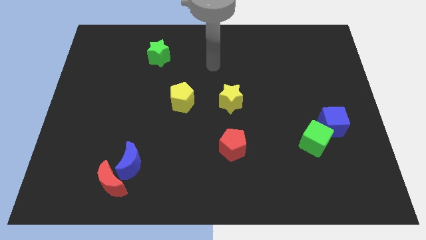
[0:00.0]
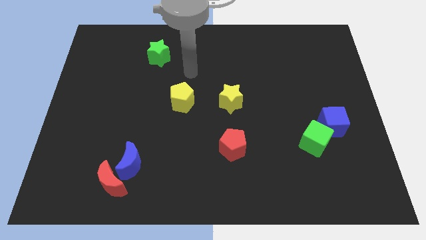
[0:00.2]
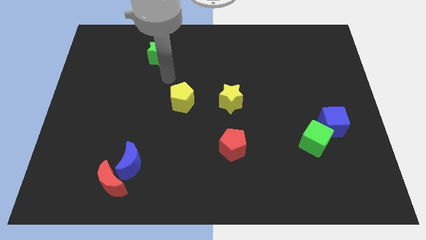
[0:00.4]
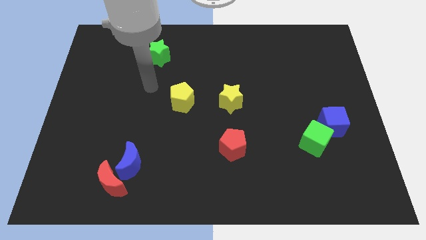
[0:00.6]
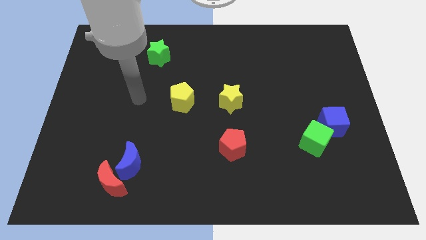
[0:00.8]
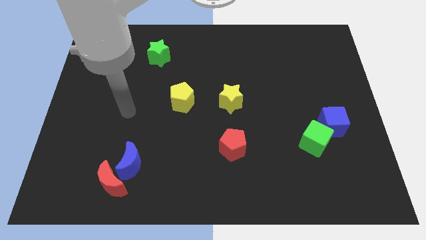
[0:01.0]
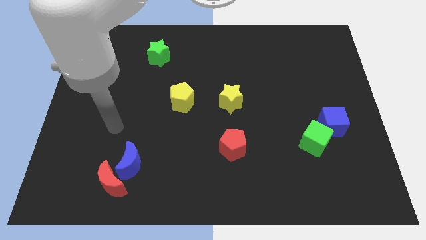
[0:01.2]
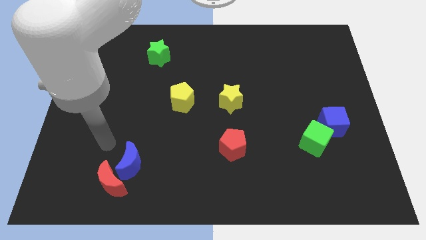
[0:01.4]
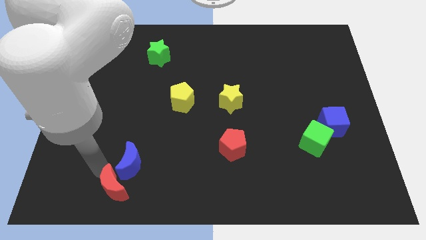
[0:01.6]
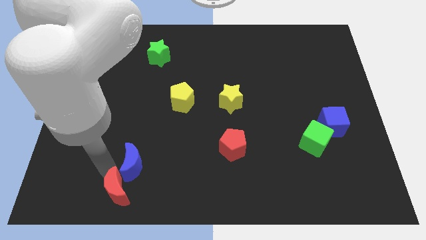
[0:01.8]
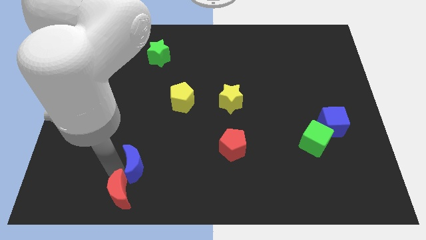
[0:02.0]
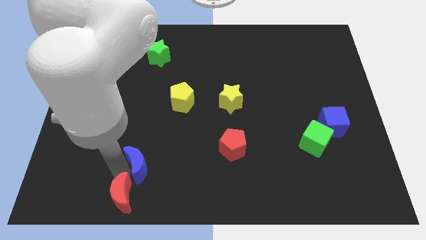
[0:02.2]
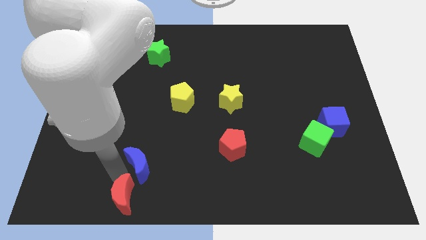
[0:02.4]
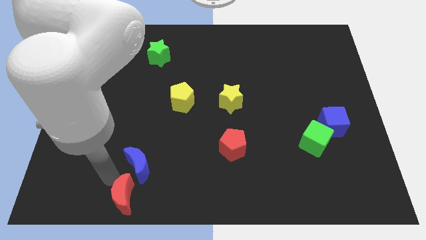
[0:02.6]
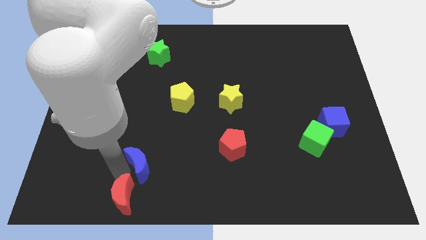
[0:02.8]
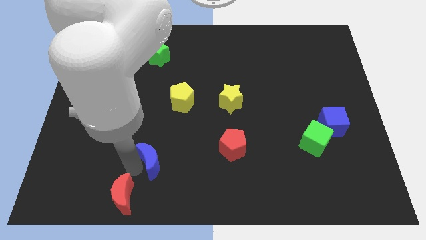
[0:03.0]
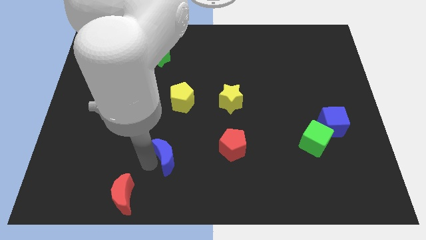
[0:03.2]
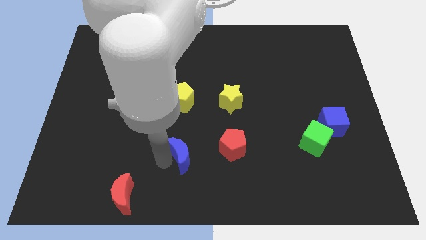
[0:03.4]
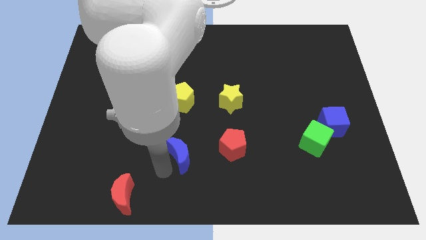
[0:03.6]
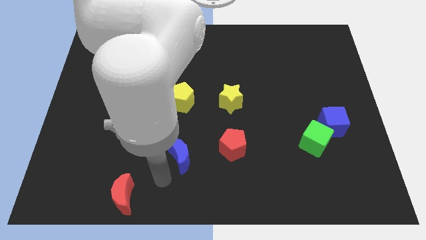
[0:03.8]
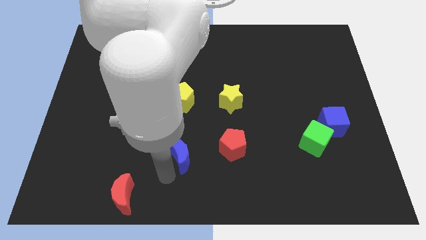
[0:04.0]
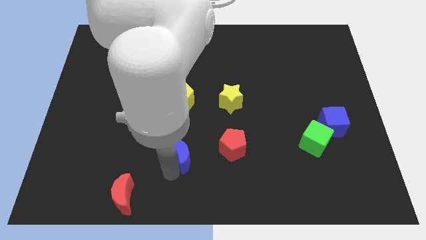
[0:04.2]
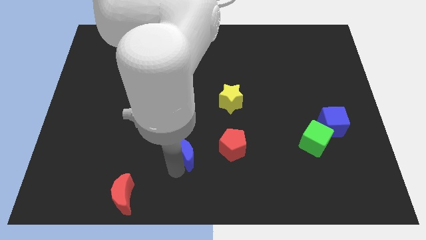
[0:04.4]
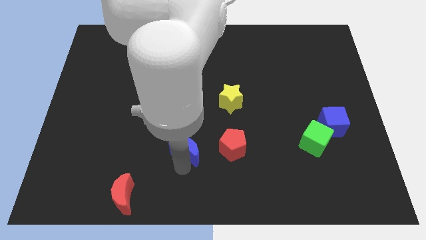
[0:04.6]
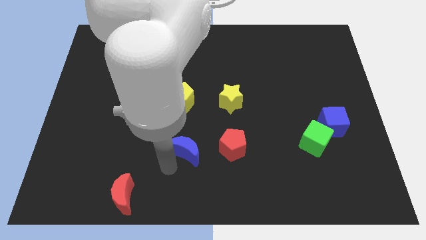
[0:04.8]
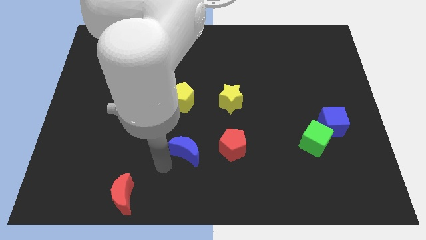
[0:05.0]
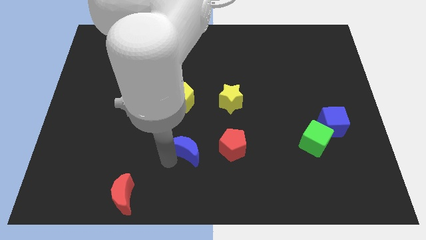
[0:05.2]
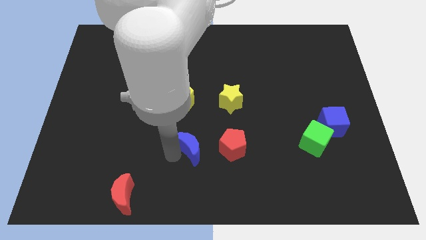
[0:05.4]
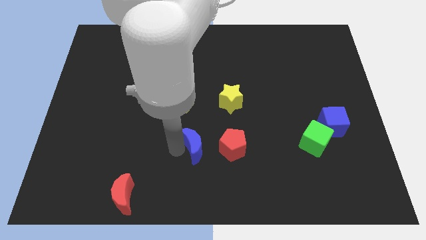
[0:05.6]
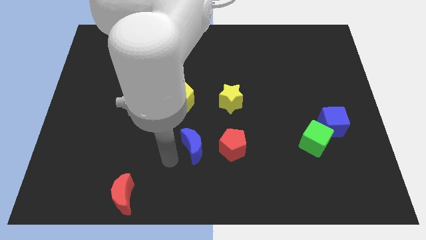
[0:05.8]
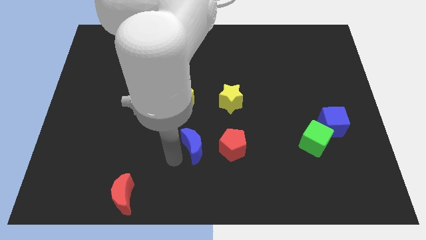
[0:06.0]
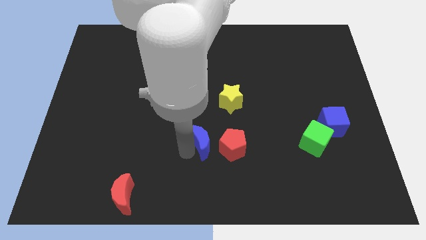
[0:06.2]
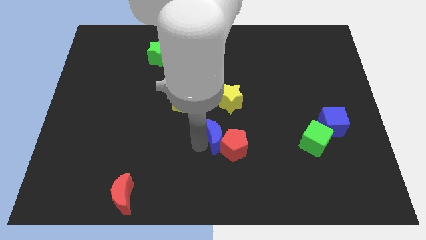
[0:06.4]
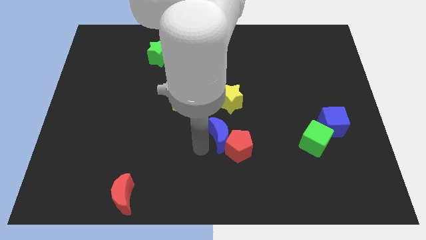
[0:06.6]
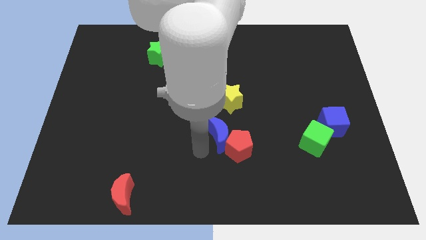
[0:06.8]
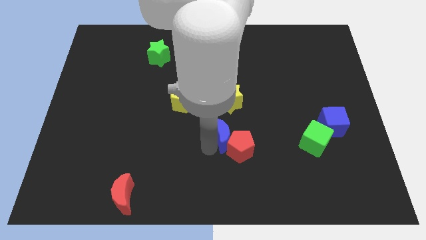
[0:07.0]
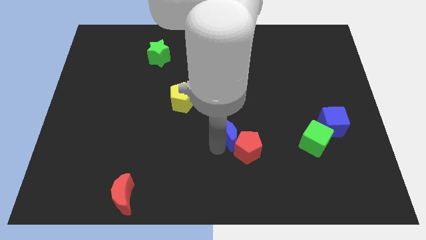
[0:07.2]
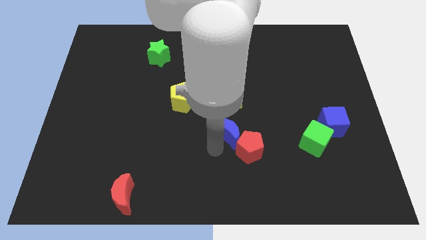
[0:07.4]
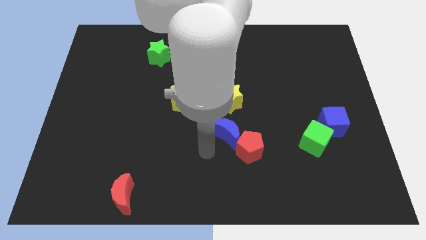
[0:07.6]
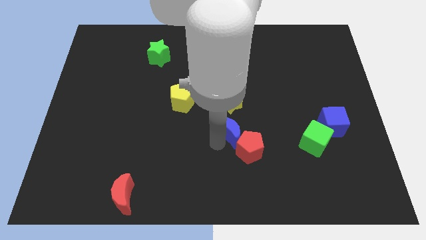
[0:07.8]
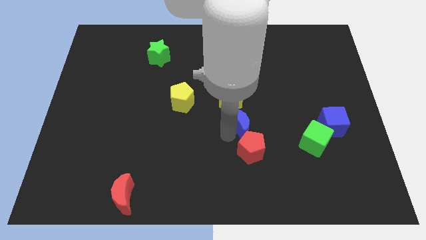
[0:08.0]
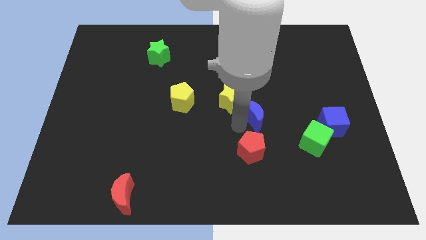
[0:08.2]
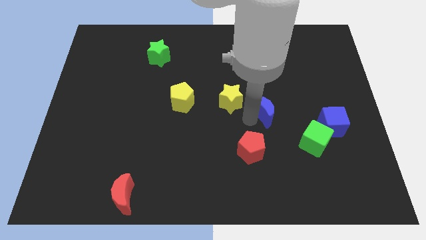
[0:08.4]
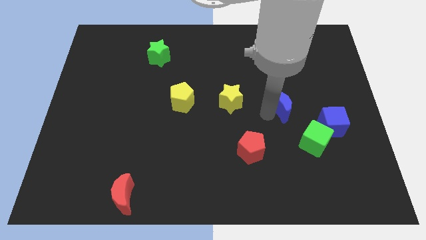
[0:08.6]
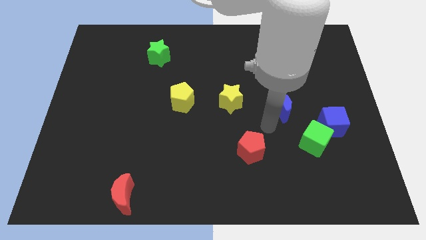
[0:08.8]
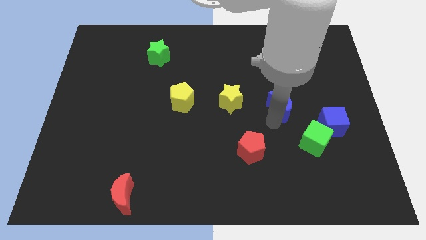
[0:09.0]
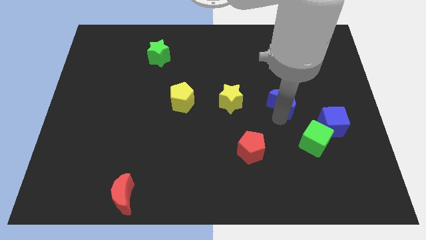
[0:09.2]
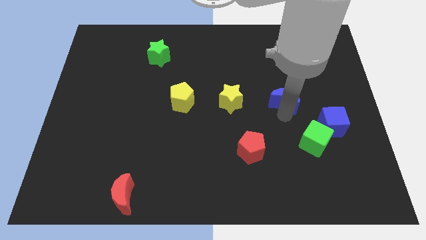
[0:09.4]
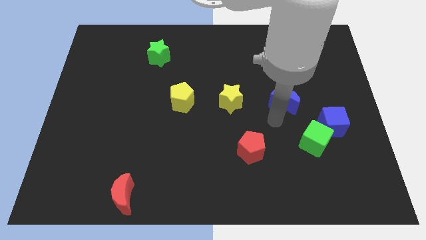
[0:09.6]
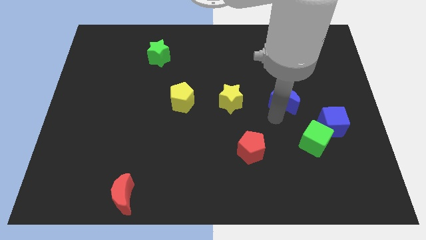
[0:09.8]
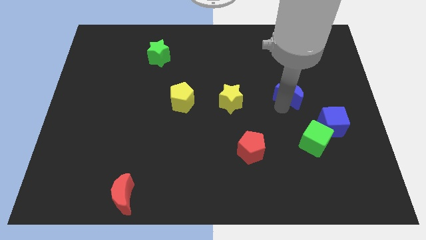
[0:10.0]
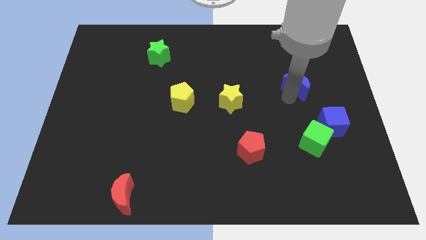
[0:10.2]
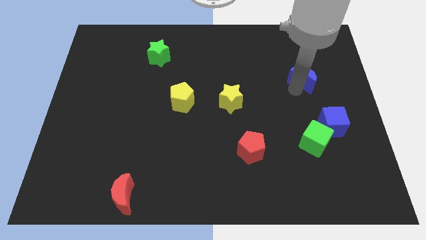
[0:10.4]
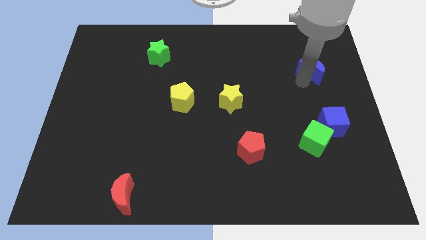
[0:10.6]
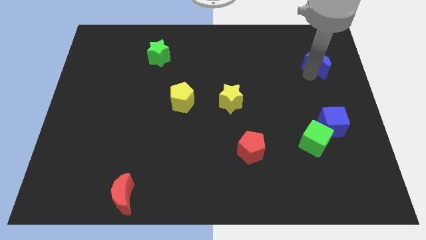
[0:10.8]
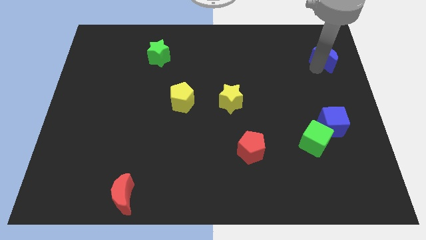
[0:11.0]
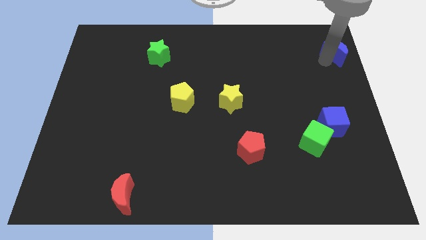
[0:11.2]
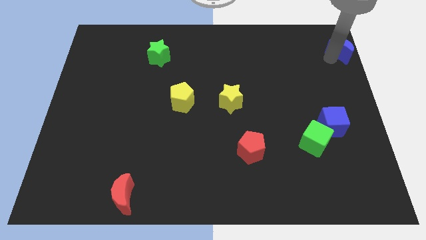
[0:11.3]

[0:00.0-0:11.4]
move the blue moon to the top right corner

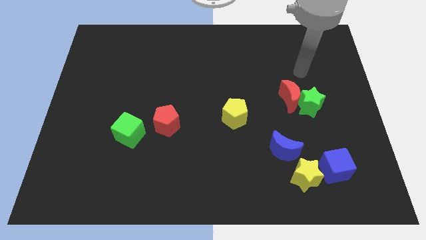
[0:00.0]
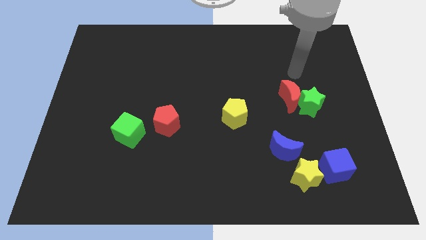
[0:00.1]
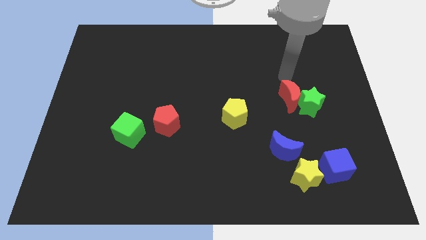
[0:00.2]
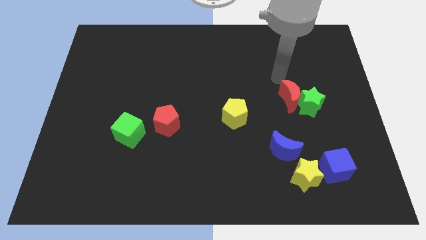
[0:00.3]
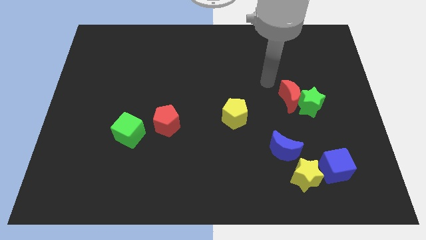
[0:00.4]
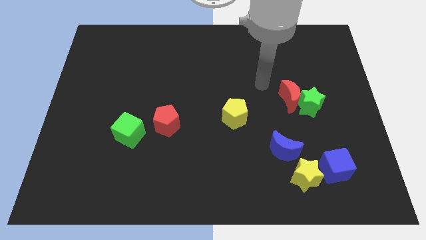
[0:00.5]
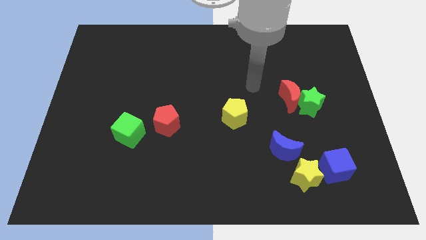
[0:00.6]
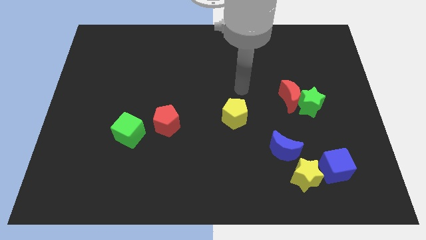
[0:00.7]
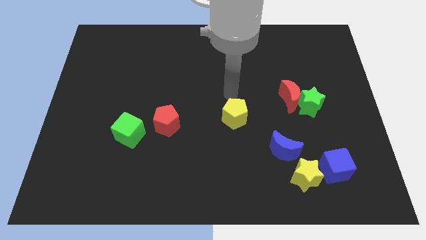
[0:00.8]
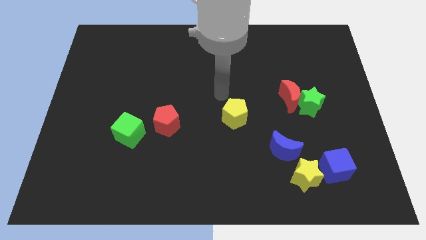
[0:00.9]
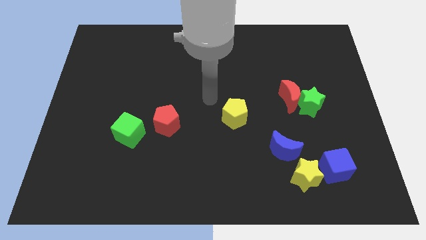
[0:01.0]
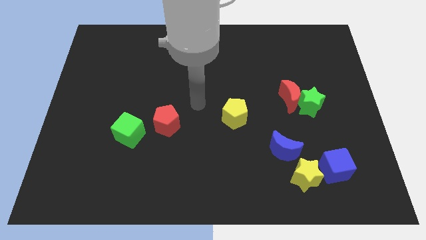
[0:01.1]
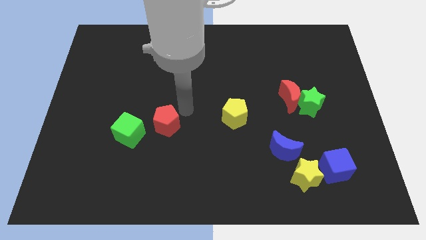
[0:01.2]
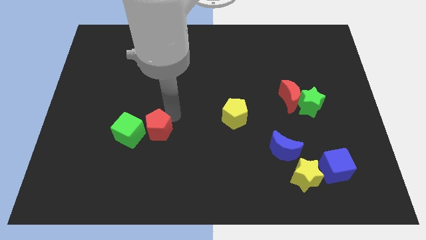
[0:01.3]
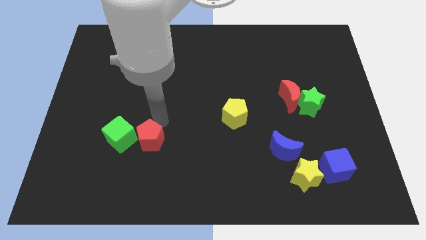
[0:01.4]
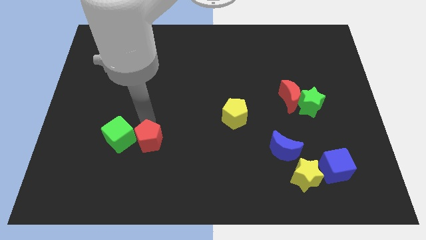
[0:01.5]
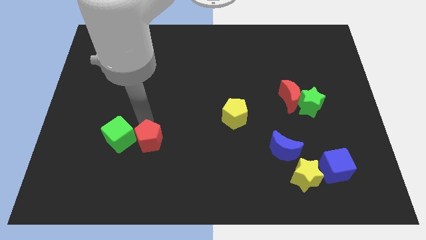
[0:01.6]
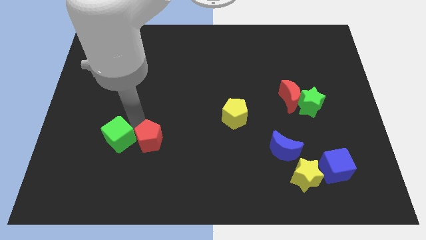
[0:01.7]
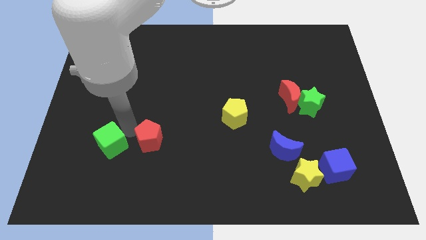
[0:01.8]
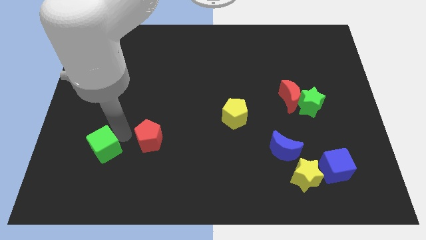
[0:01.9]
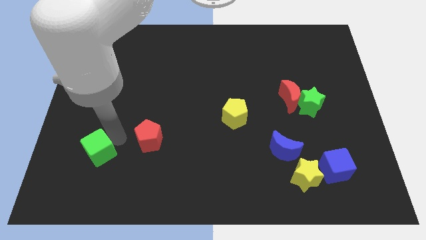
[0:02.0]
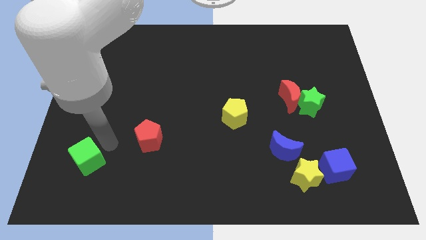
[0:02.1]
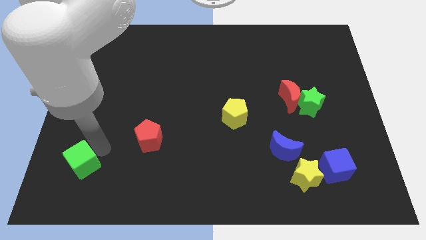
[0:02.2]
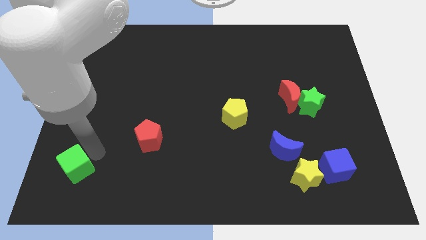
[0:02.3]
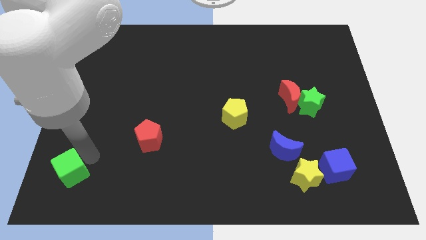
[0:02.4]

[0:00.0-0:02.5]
push the green cube to the lower left corner
